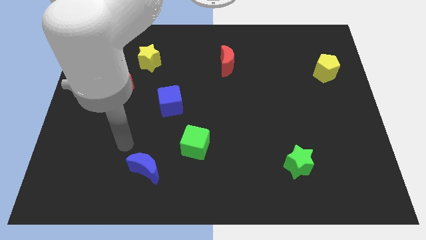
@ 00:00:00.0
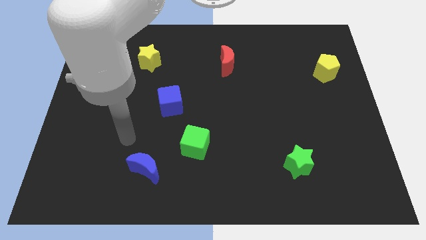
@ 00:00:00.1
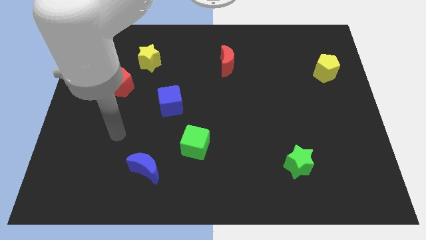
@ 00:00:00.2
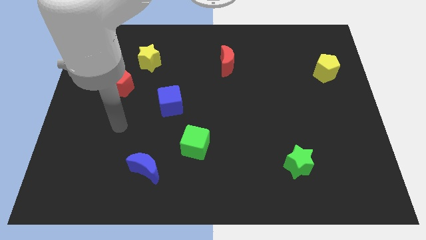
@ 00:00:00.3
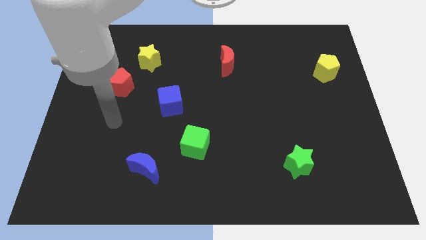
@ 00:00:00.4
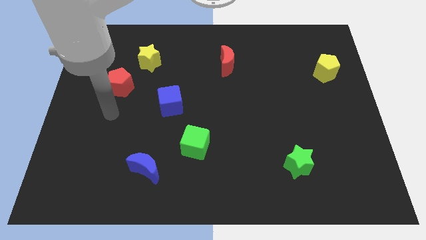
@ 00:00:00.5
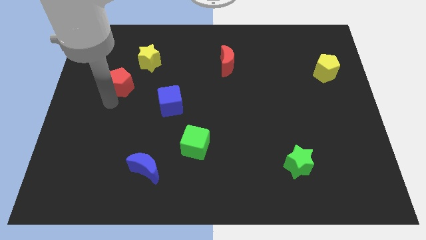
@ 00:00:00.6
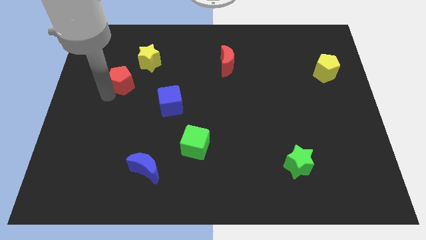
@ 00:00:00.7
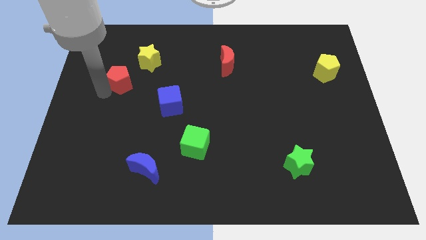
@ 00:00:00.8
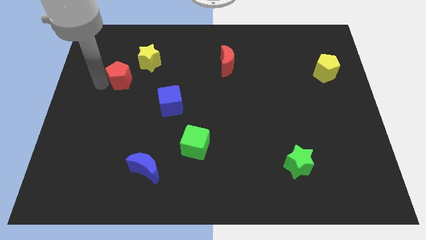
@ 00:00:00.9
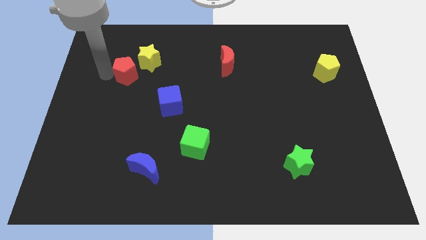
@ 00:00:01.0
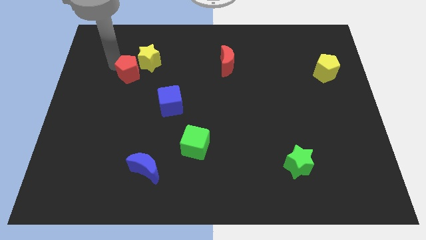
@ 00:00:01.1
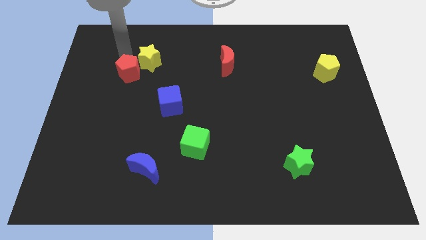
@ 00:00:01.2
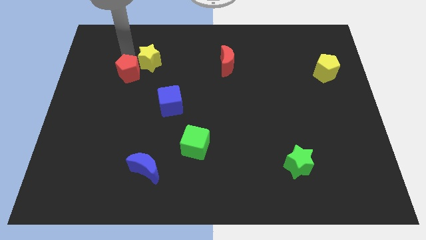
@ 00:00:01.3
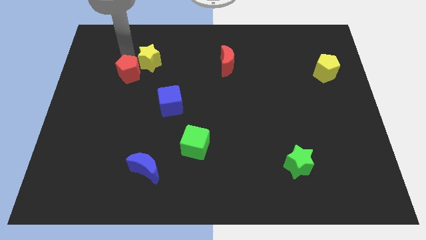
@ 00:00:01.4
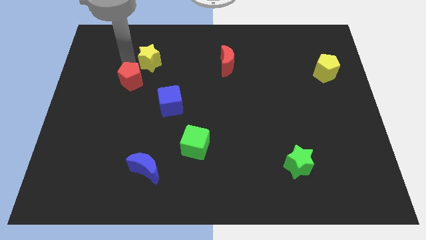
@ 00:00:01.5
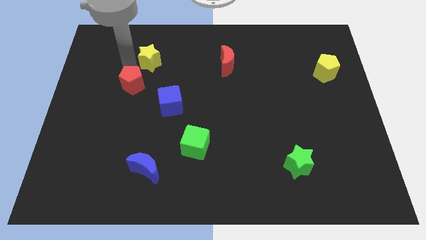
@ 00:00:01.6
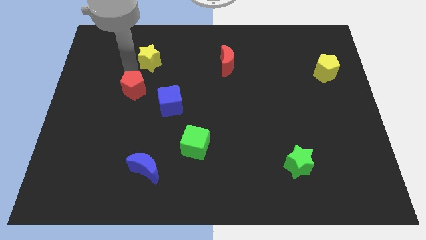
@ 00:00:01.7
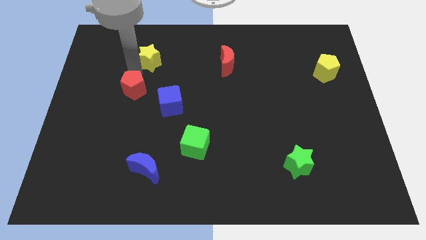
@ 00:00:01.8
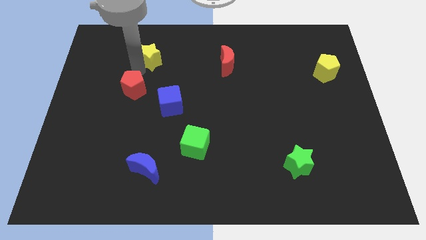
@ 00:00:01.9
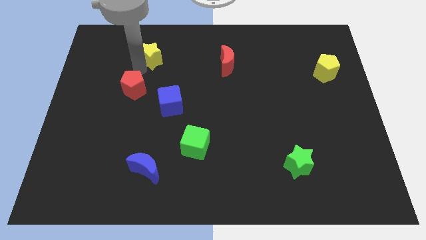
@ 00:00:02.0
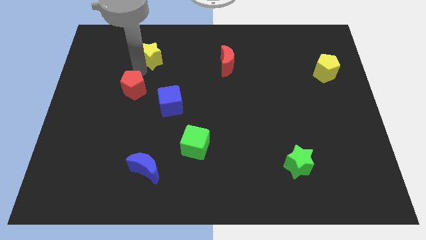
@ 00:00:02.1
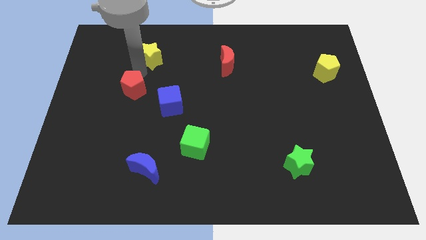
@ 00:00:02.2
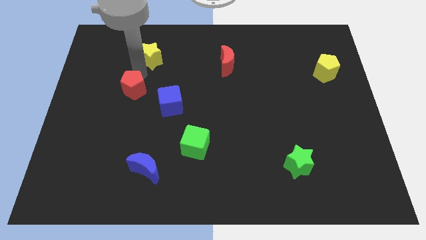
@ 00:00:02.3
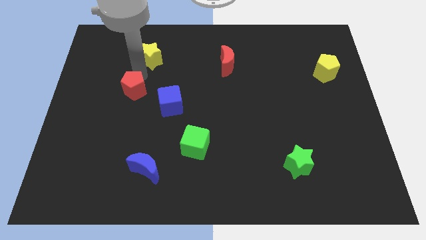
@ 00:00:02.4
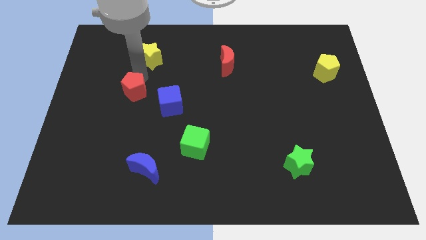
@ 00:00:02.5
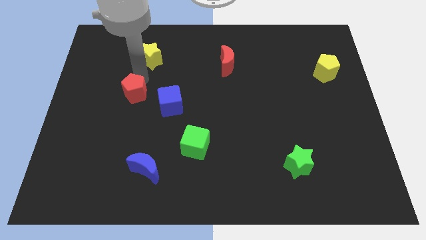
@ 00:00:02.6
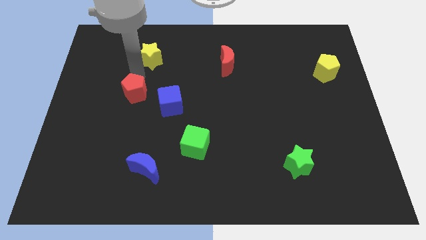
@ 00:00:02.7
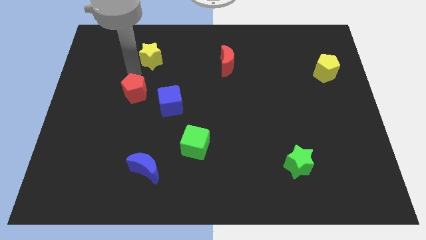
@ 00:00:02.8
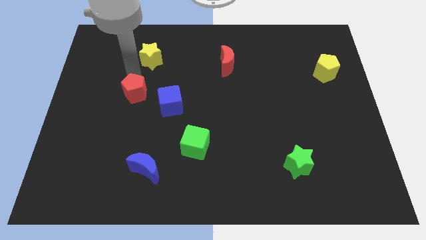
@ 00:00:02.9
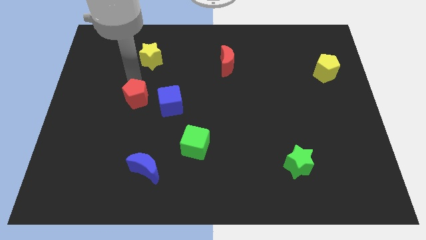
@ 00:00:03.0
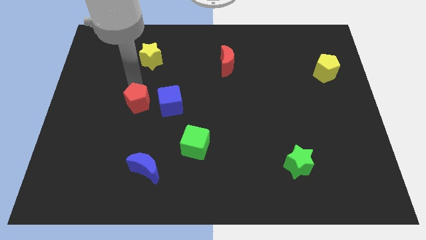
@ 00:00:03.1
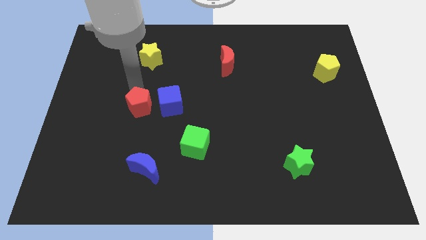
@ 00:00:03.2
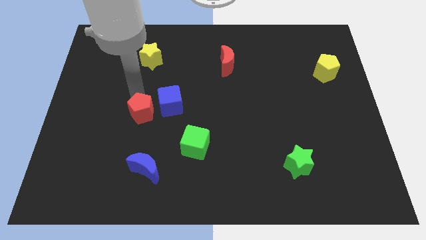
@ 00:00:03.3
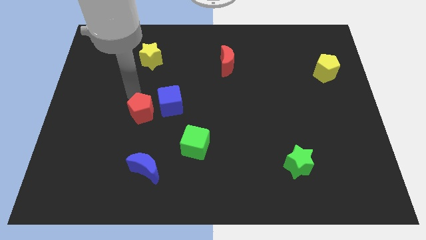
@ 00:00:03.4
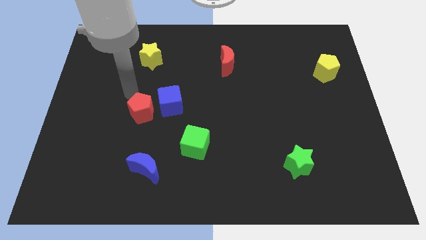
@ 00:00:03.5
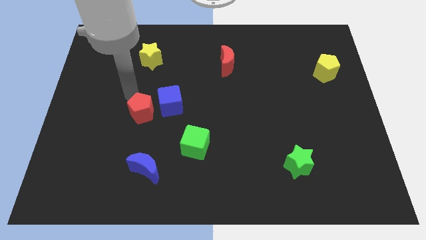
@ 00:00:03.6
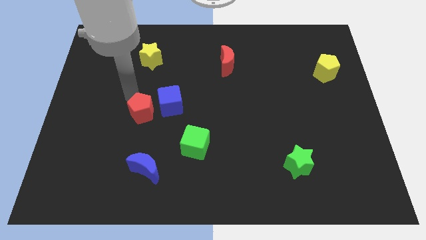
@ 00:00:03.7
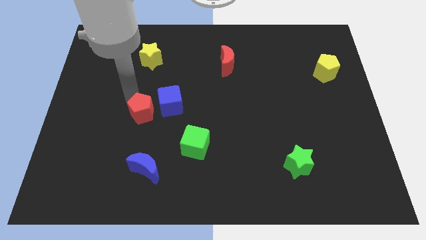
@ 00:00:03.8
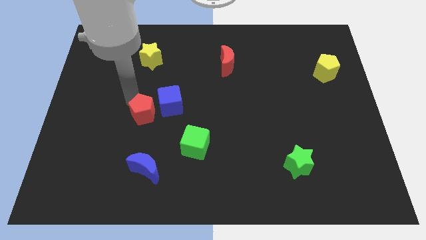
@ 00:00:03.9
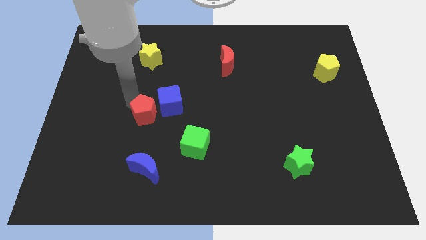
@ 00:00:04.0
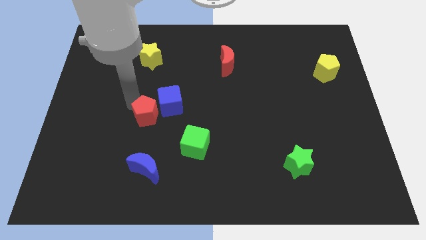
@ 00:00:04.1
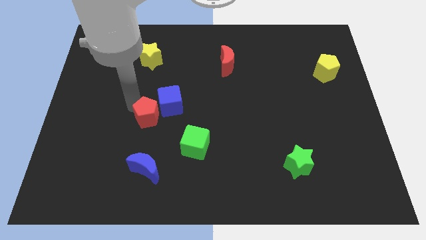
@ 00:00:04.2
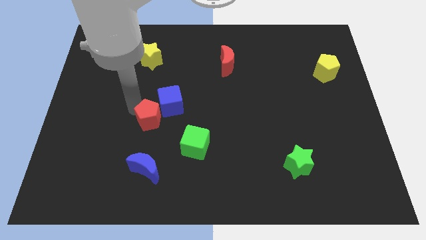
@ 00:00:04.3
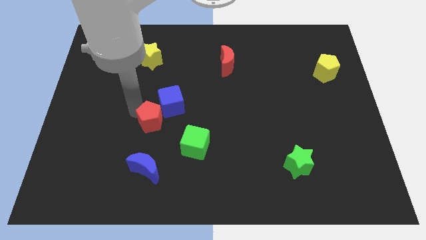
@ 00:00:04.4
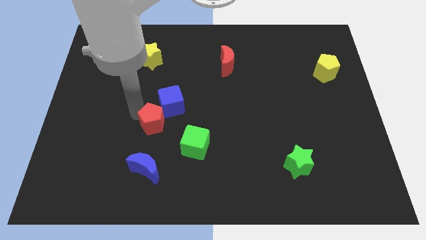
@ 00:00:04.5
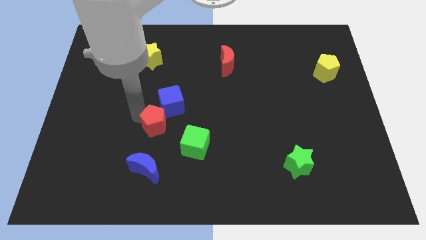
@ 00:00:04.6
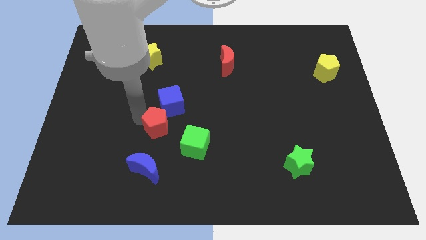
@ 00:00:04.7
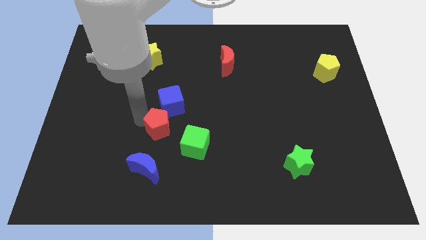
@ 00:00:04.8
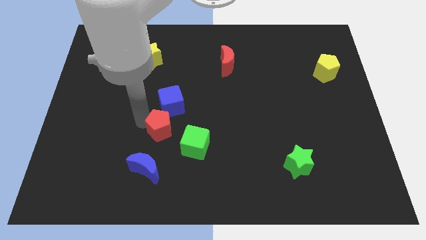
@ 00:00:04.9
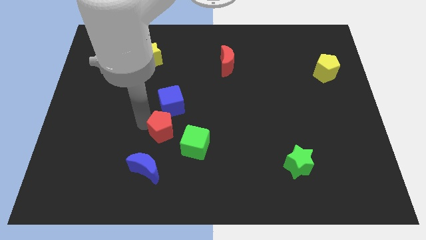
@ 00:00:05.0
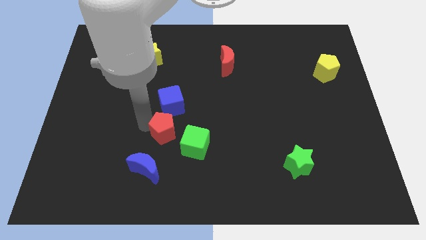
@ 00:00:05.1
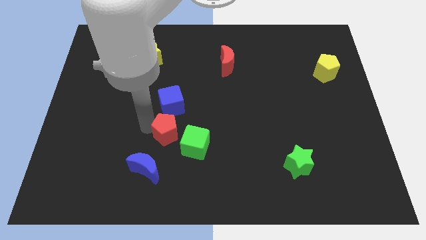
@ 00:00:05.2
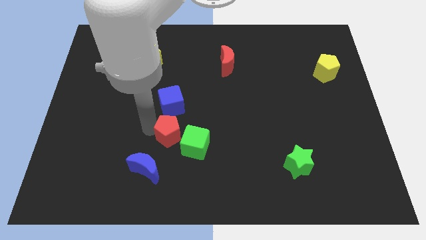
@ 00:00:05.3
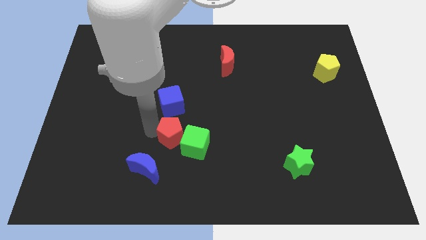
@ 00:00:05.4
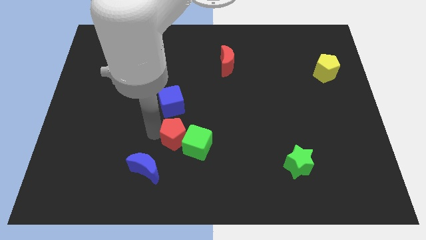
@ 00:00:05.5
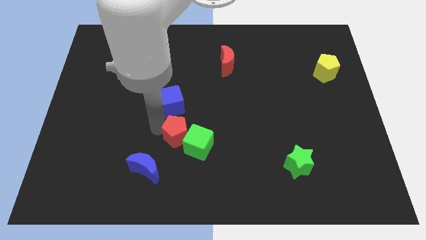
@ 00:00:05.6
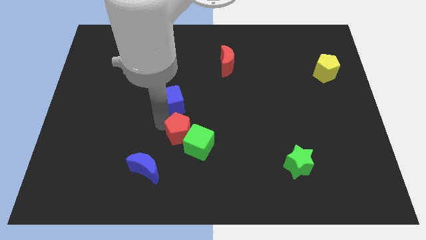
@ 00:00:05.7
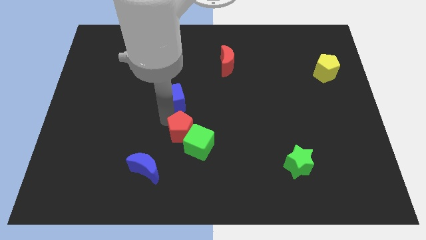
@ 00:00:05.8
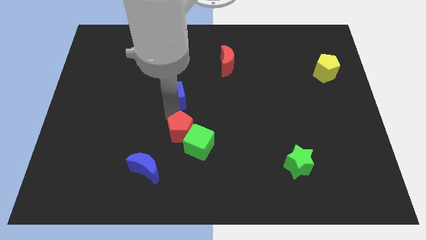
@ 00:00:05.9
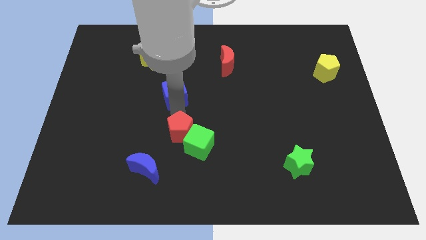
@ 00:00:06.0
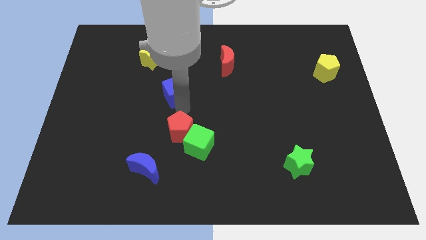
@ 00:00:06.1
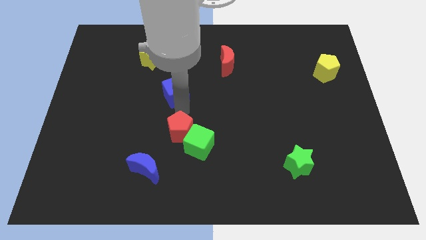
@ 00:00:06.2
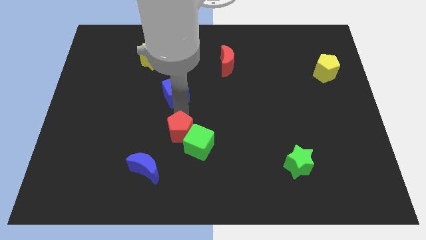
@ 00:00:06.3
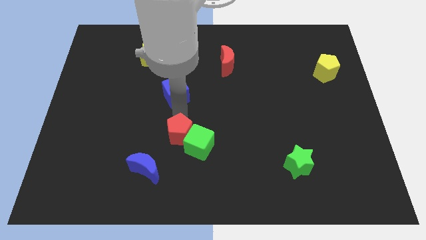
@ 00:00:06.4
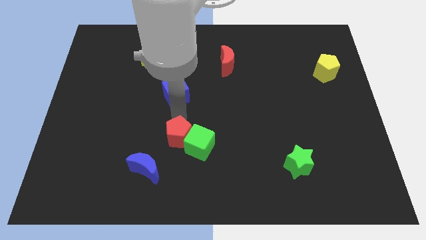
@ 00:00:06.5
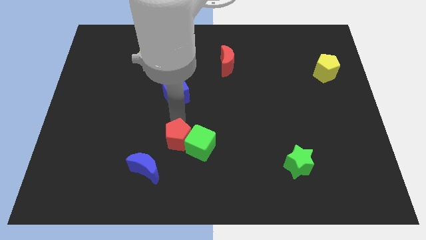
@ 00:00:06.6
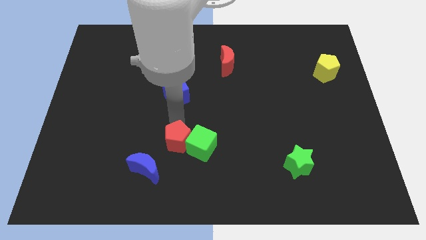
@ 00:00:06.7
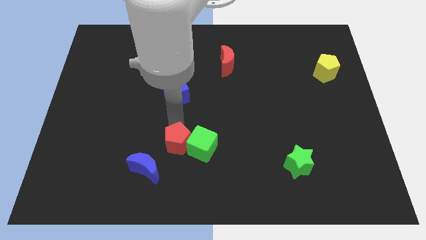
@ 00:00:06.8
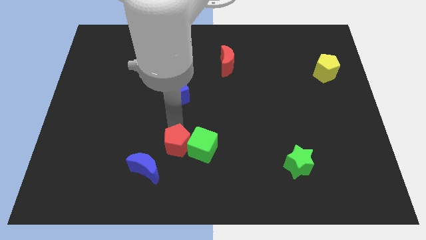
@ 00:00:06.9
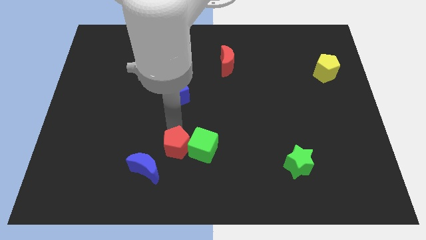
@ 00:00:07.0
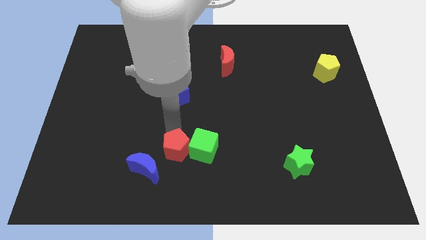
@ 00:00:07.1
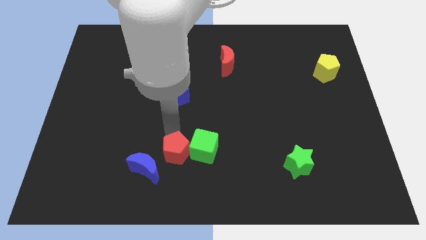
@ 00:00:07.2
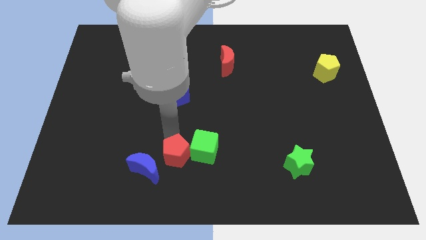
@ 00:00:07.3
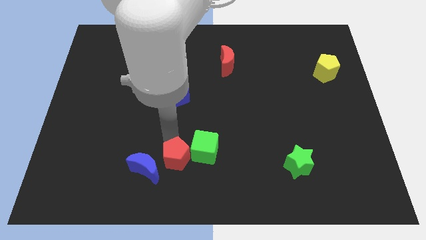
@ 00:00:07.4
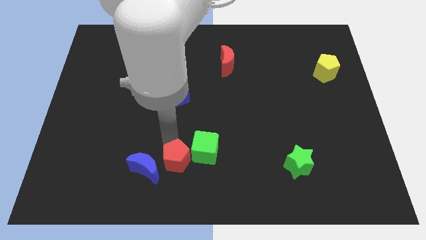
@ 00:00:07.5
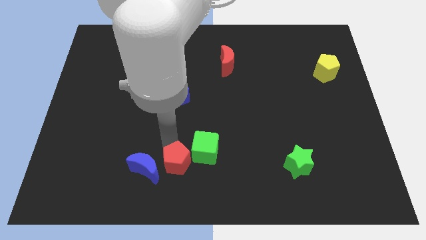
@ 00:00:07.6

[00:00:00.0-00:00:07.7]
put the red pentagon to the bottom side
